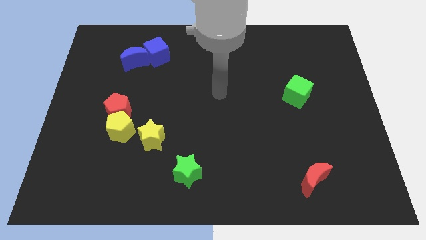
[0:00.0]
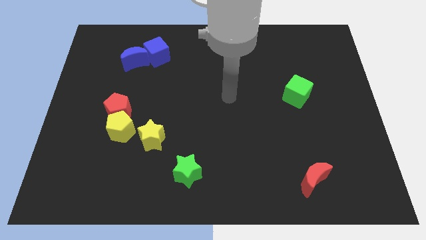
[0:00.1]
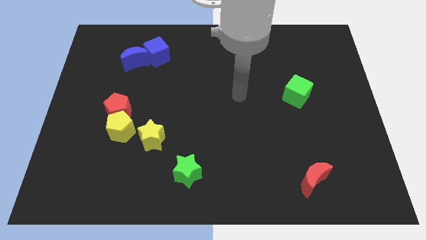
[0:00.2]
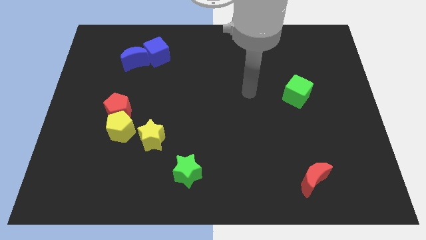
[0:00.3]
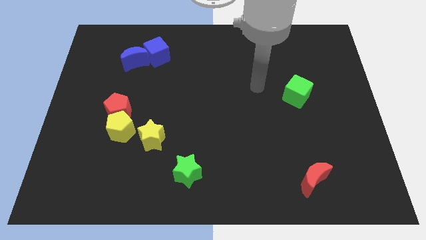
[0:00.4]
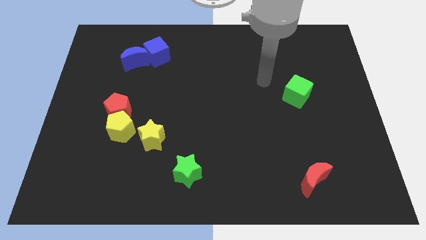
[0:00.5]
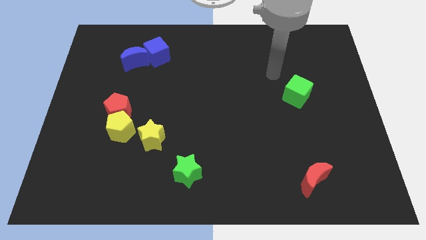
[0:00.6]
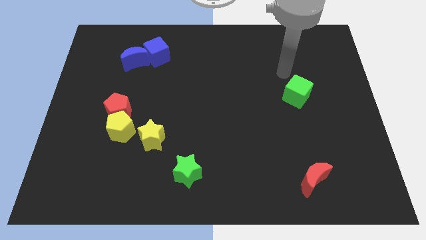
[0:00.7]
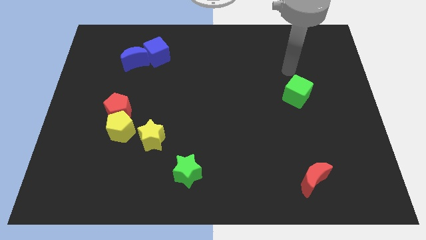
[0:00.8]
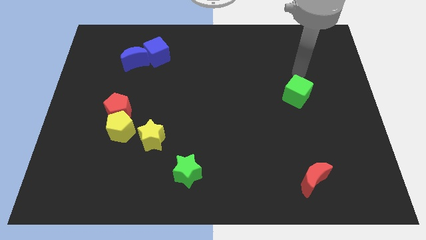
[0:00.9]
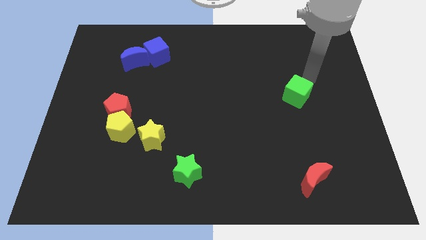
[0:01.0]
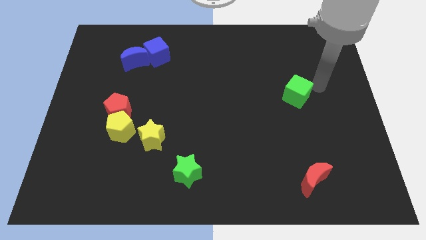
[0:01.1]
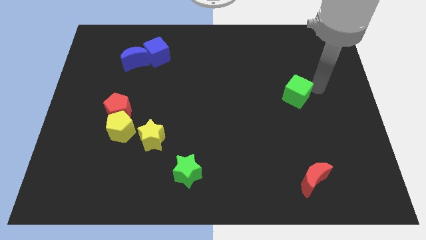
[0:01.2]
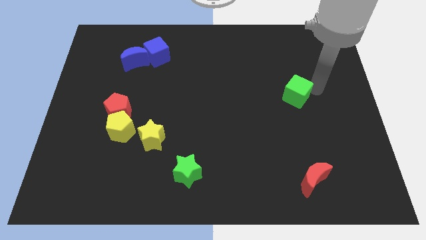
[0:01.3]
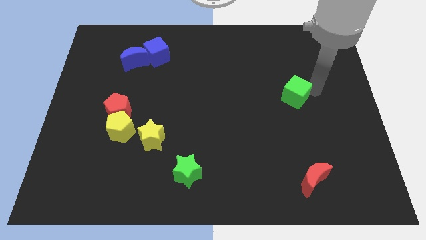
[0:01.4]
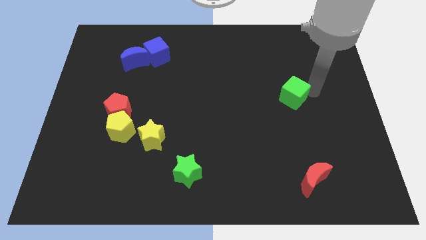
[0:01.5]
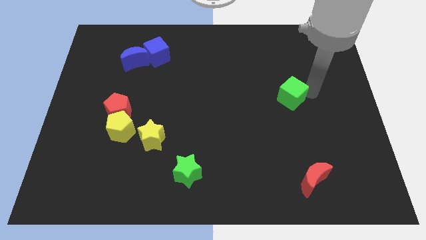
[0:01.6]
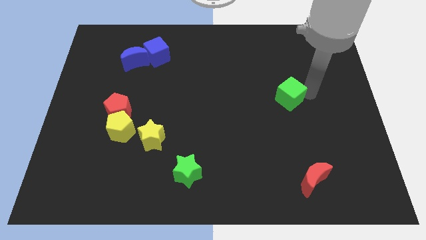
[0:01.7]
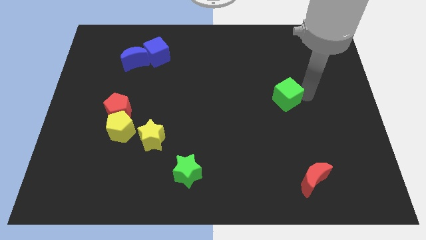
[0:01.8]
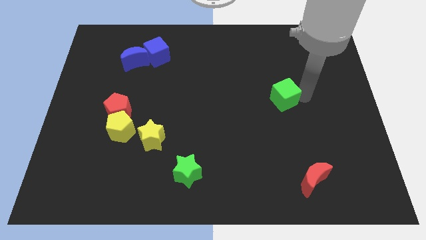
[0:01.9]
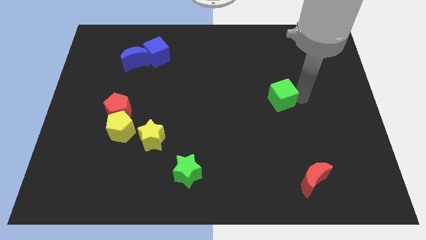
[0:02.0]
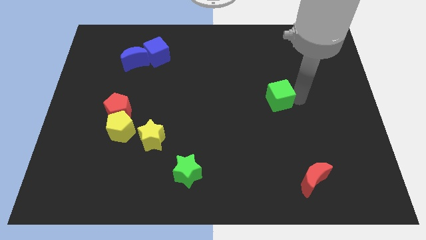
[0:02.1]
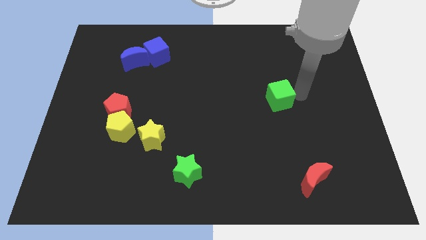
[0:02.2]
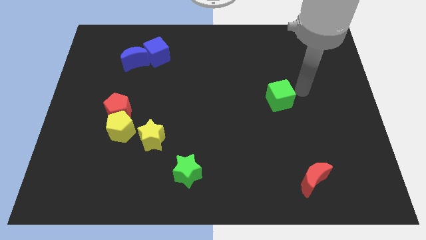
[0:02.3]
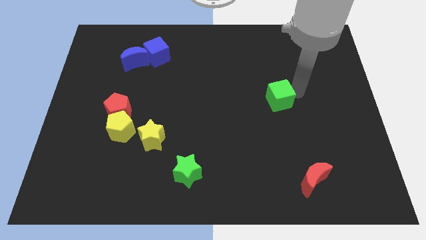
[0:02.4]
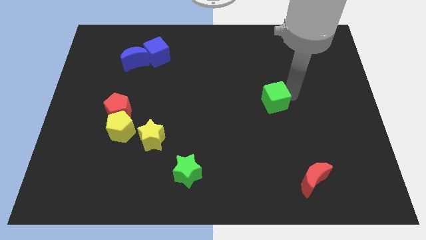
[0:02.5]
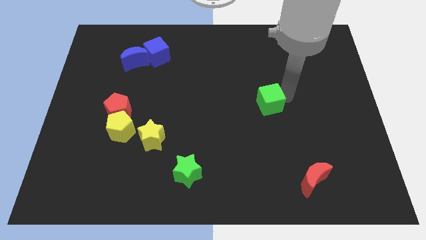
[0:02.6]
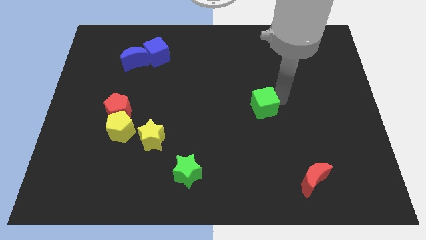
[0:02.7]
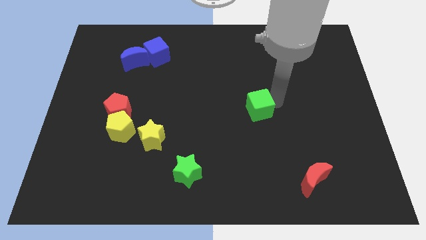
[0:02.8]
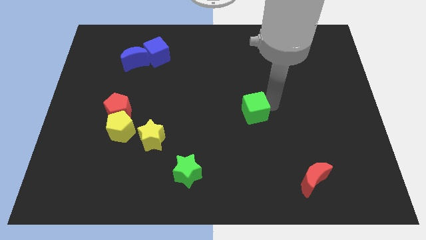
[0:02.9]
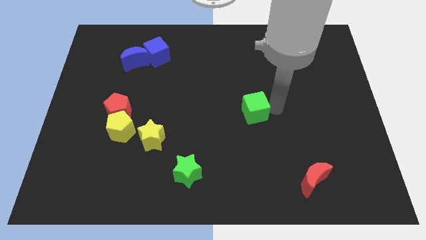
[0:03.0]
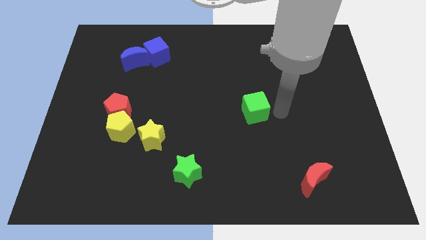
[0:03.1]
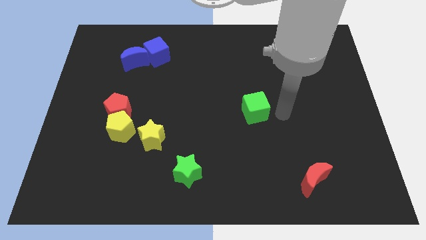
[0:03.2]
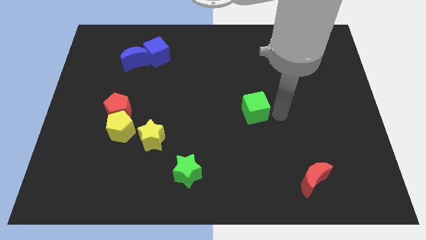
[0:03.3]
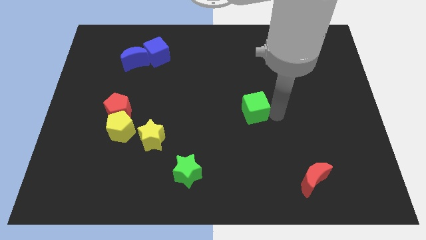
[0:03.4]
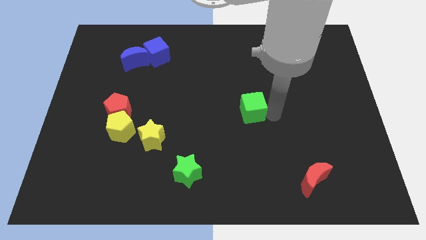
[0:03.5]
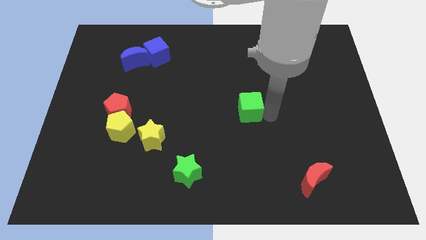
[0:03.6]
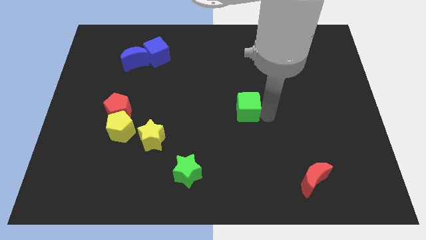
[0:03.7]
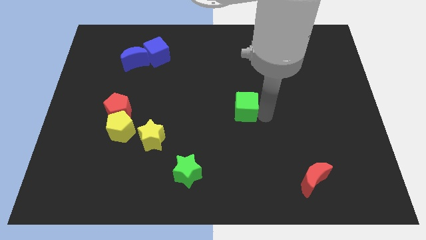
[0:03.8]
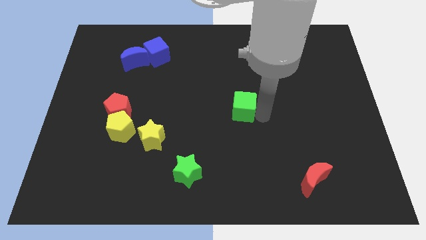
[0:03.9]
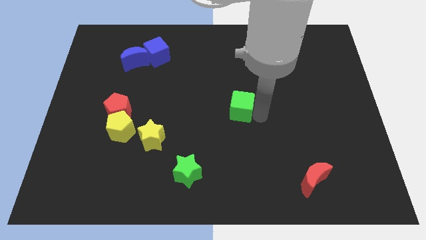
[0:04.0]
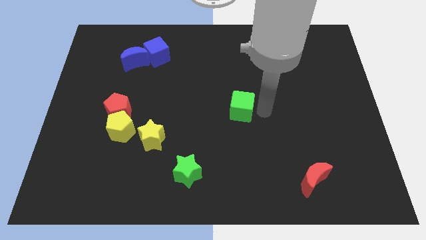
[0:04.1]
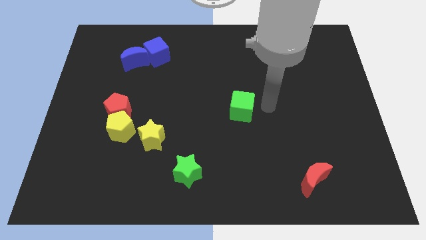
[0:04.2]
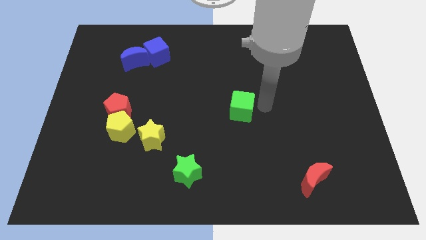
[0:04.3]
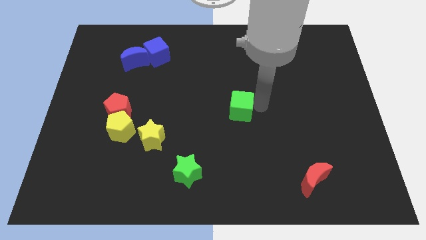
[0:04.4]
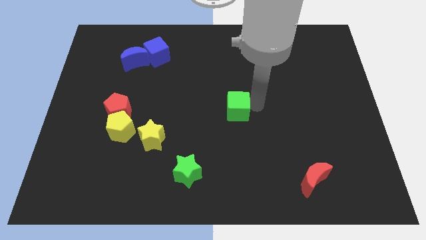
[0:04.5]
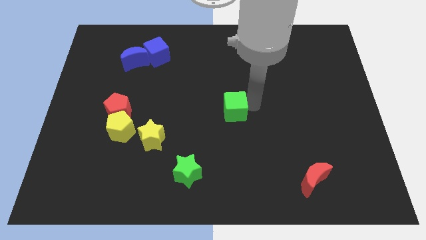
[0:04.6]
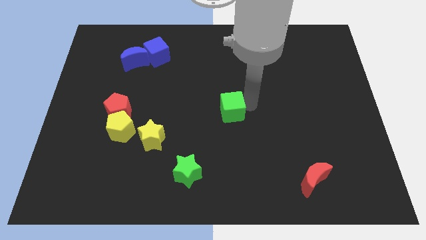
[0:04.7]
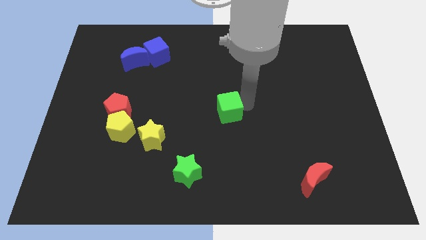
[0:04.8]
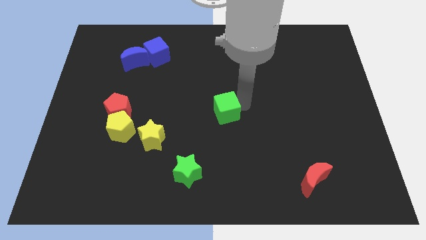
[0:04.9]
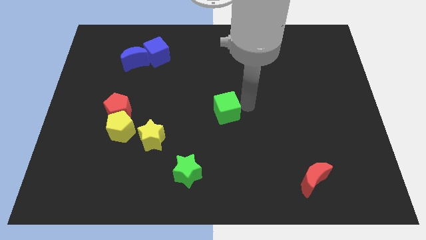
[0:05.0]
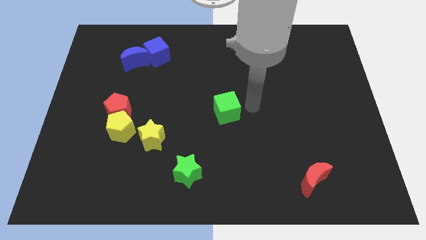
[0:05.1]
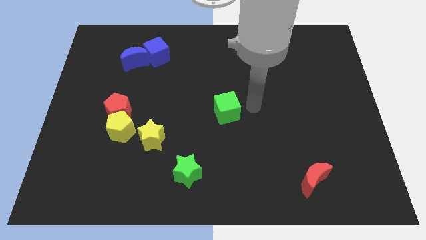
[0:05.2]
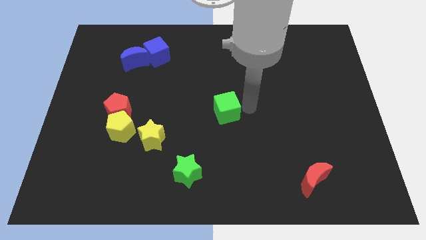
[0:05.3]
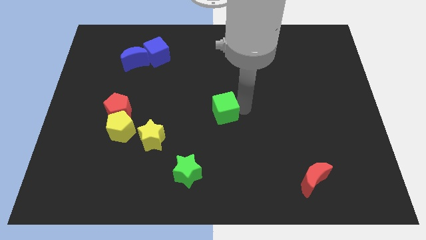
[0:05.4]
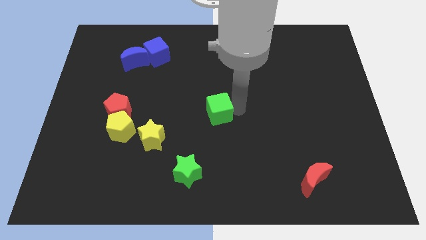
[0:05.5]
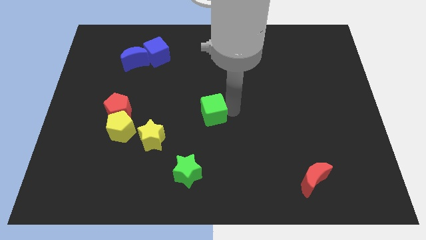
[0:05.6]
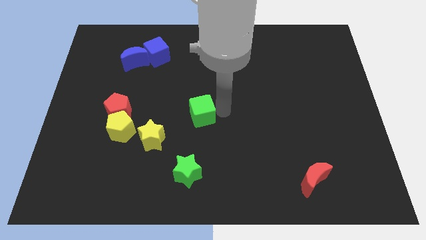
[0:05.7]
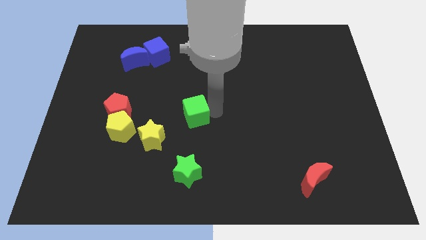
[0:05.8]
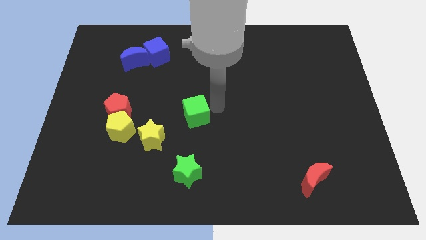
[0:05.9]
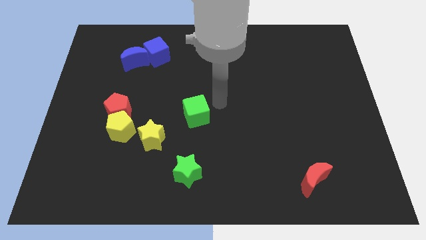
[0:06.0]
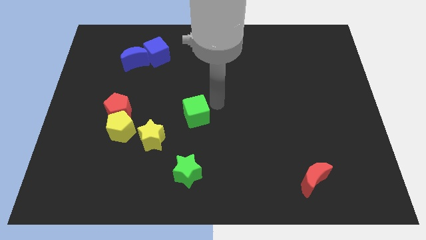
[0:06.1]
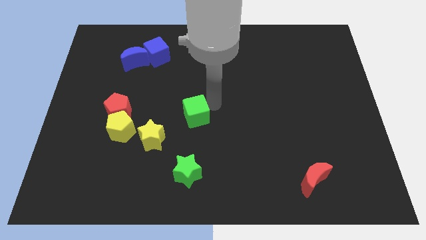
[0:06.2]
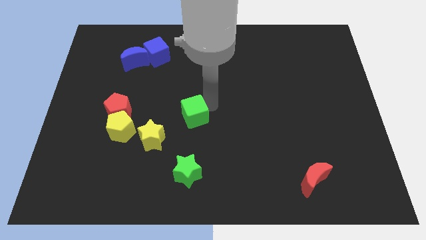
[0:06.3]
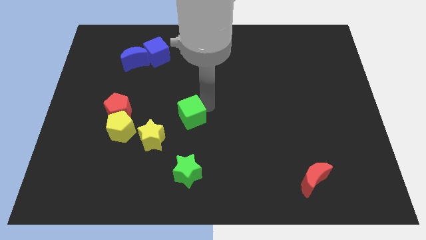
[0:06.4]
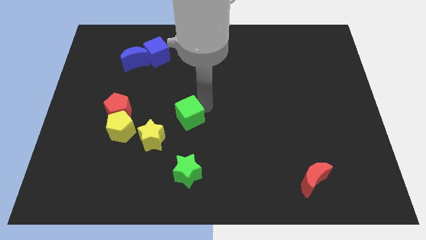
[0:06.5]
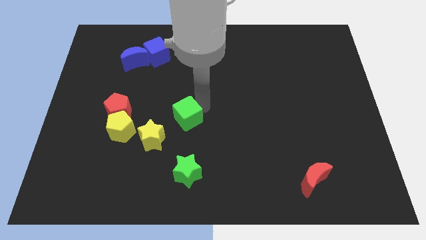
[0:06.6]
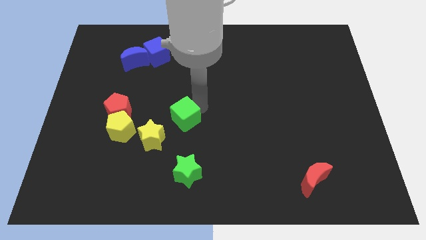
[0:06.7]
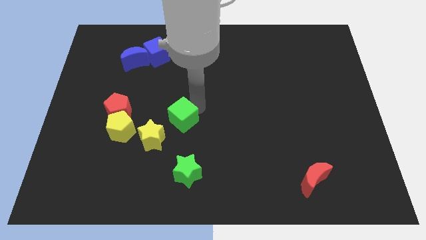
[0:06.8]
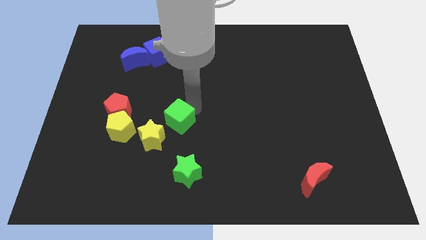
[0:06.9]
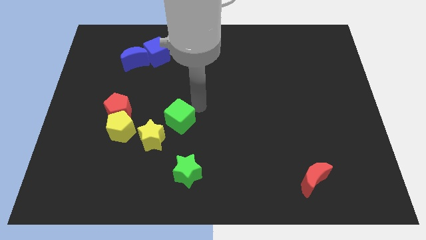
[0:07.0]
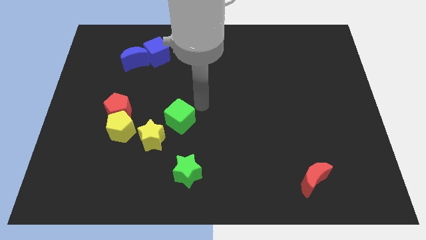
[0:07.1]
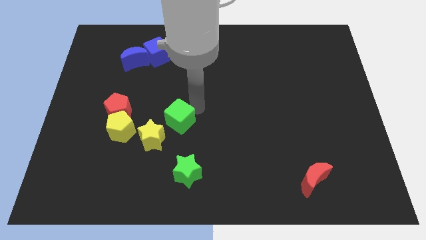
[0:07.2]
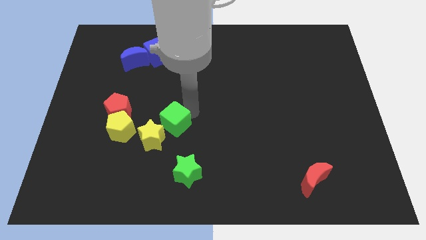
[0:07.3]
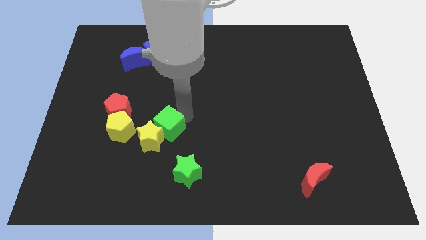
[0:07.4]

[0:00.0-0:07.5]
push the green cube close to the yellow star
